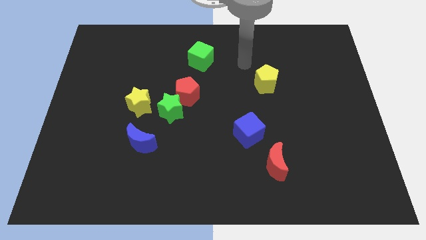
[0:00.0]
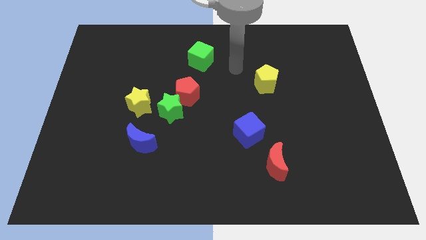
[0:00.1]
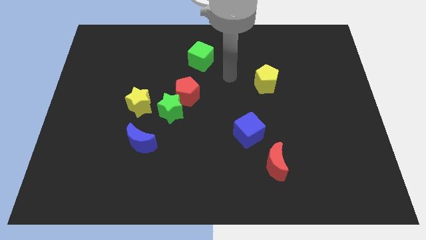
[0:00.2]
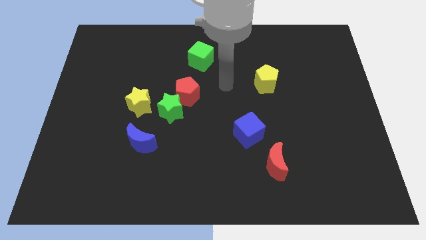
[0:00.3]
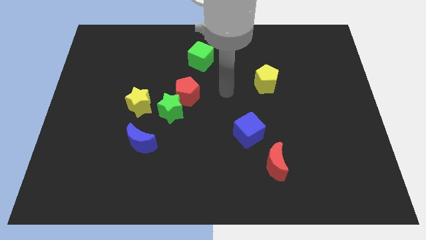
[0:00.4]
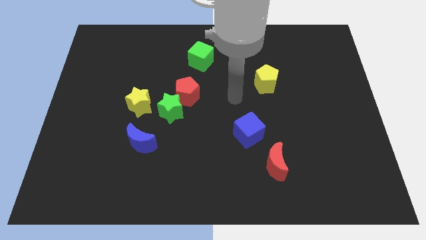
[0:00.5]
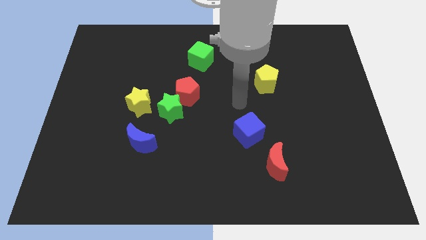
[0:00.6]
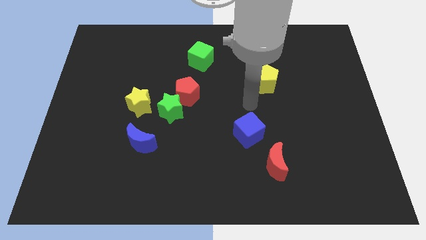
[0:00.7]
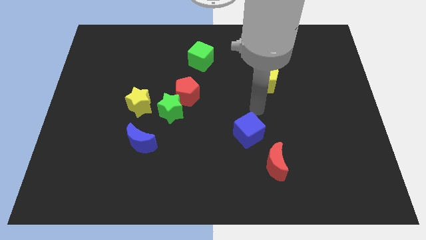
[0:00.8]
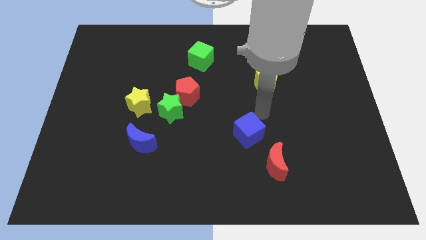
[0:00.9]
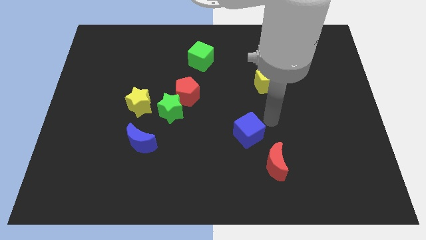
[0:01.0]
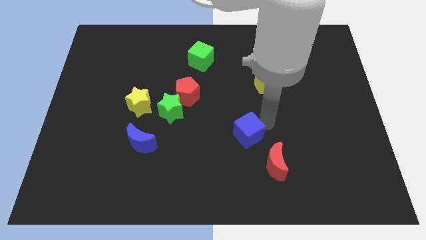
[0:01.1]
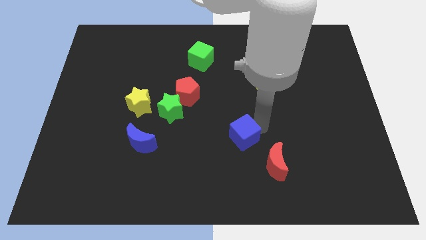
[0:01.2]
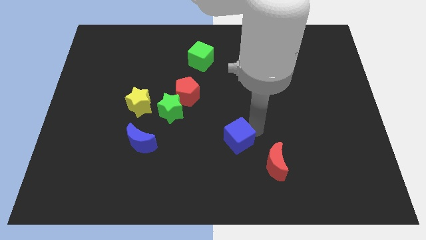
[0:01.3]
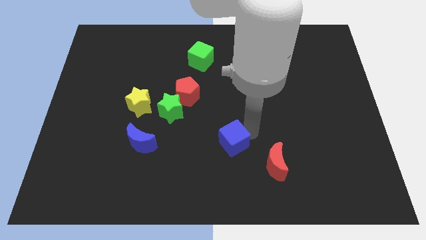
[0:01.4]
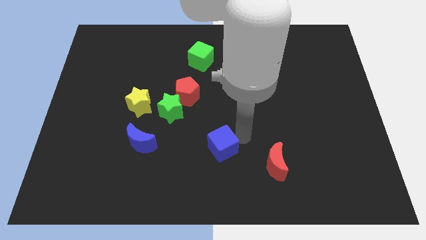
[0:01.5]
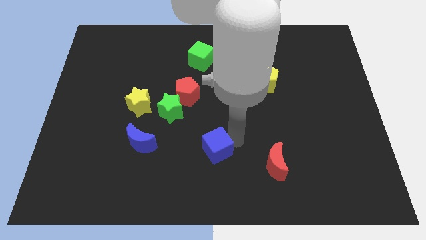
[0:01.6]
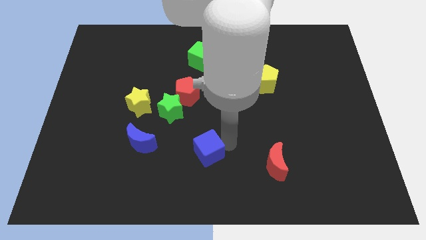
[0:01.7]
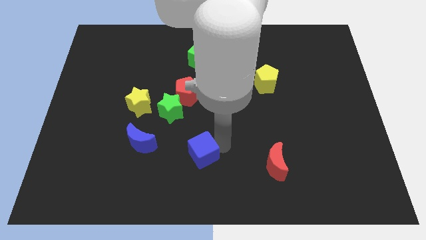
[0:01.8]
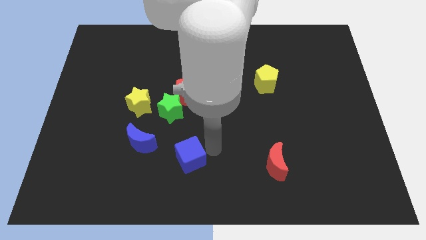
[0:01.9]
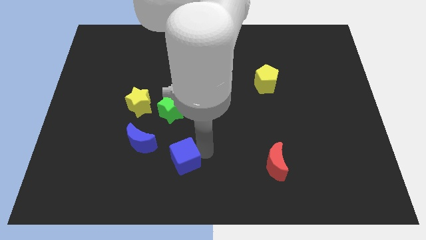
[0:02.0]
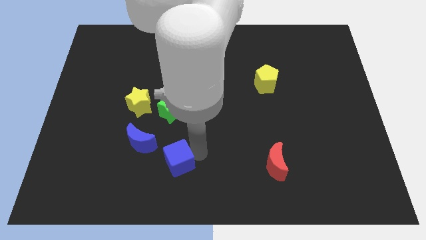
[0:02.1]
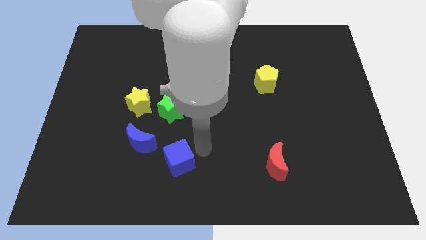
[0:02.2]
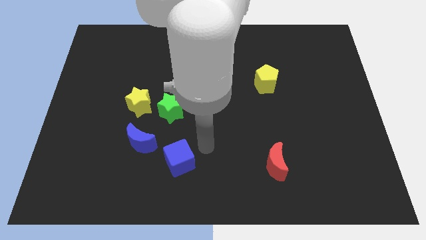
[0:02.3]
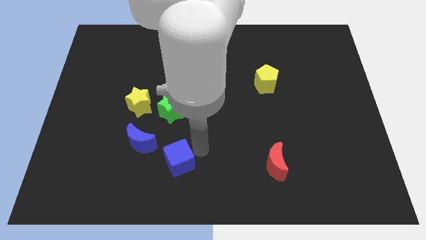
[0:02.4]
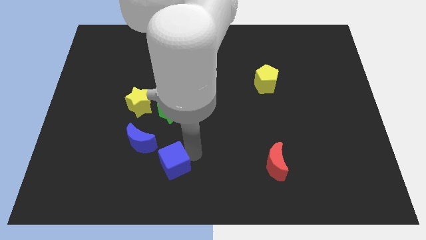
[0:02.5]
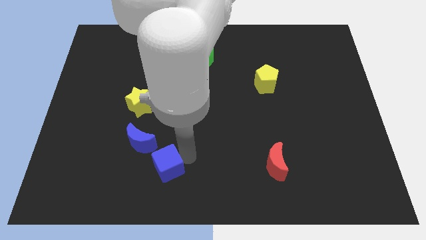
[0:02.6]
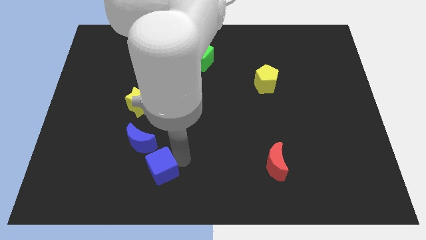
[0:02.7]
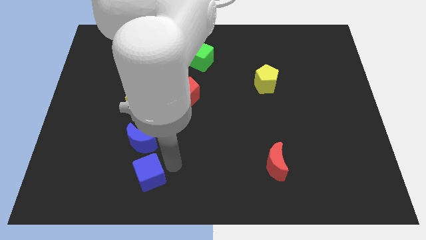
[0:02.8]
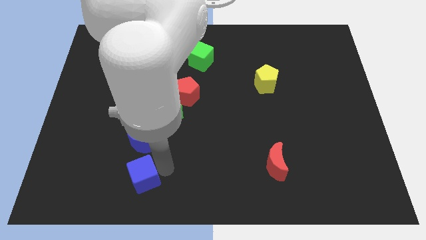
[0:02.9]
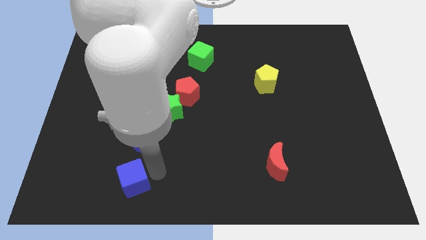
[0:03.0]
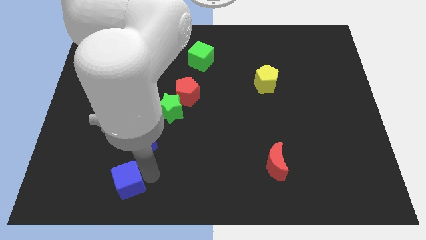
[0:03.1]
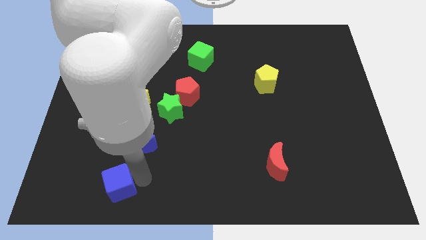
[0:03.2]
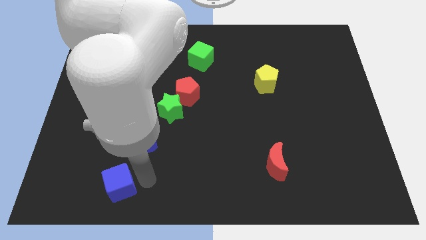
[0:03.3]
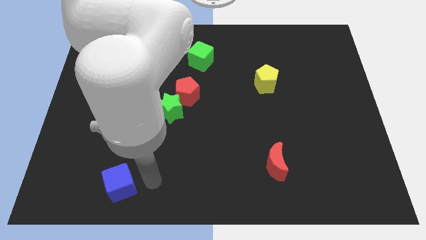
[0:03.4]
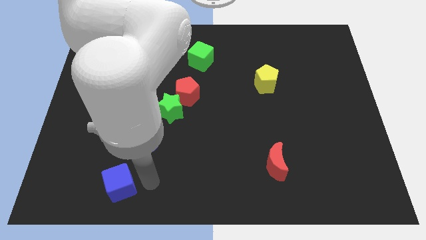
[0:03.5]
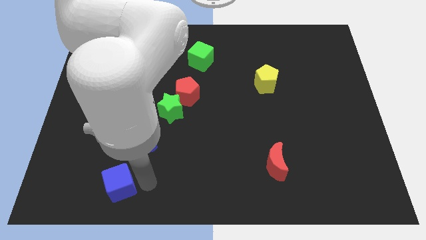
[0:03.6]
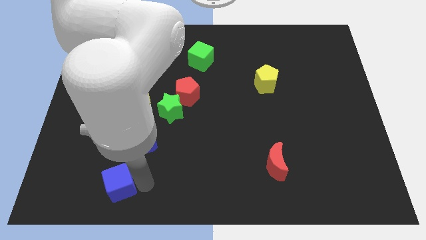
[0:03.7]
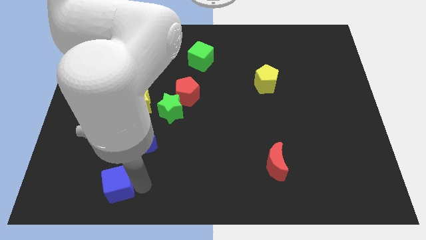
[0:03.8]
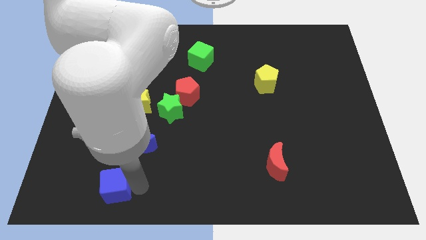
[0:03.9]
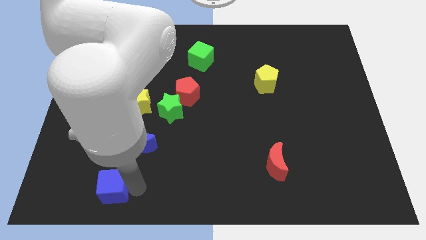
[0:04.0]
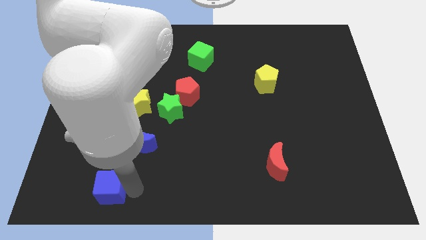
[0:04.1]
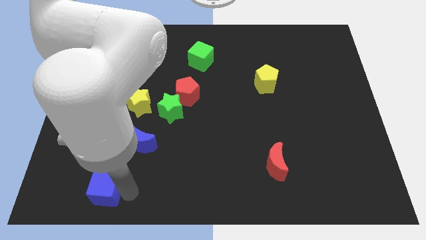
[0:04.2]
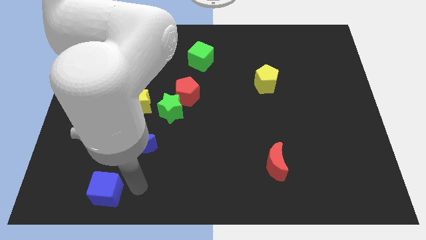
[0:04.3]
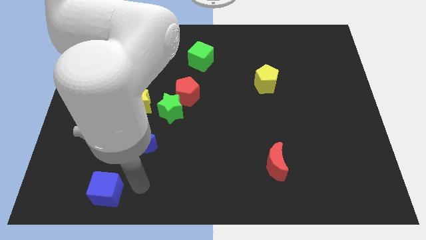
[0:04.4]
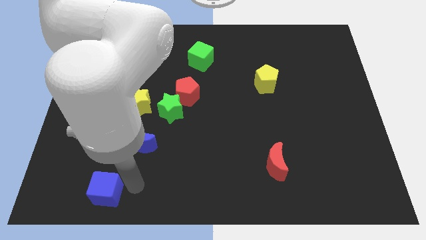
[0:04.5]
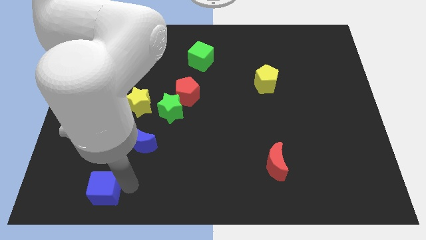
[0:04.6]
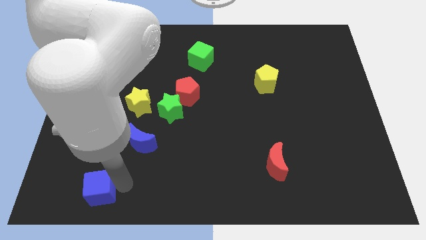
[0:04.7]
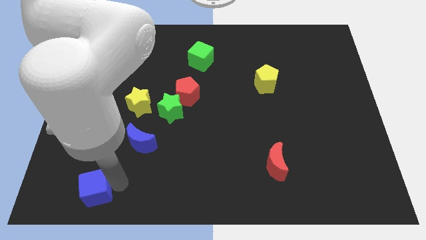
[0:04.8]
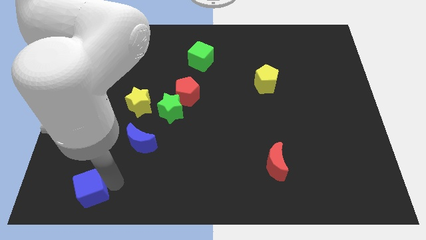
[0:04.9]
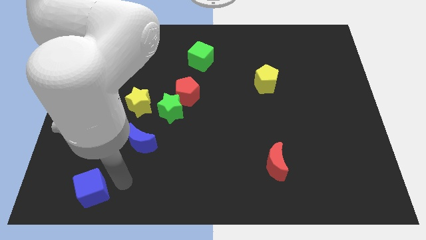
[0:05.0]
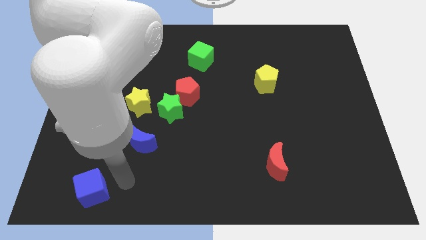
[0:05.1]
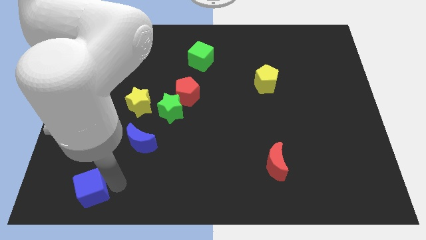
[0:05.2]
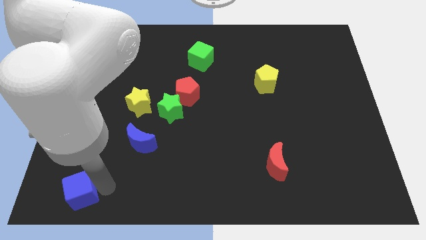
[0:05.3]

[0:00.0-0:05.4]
slide the blue cube to the lower left corner

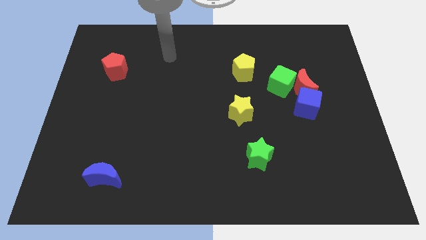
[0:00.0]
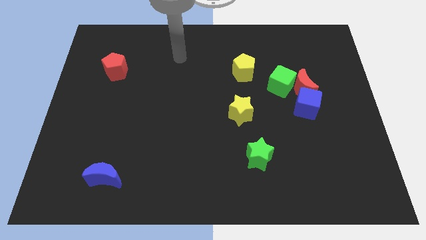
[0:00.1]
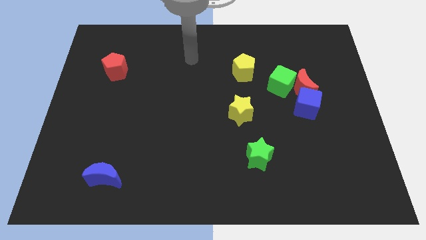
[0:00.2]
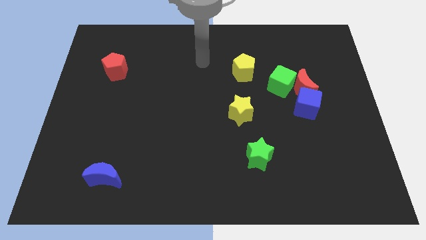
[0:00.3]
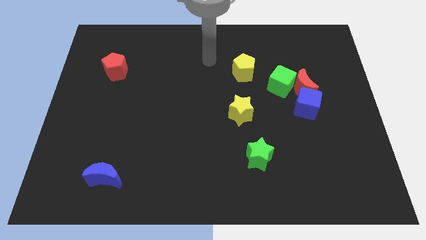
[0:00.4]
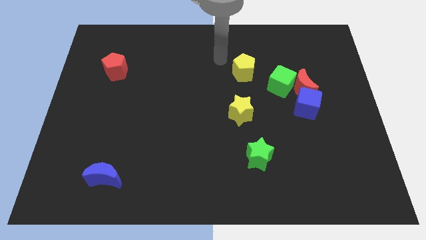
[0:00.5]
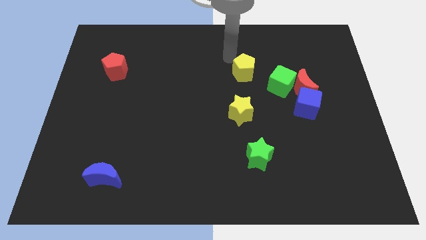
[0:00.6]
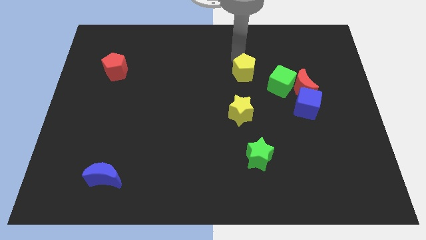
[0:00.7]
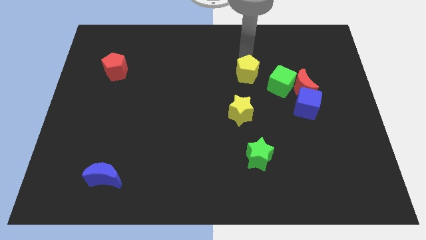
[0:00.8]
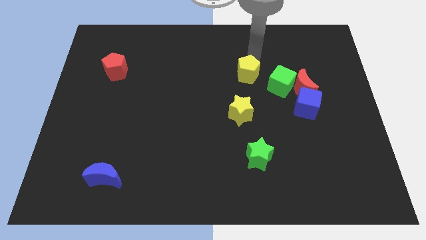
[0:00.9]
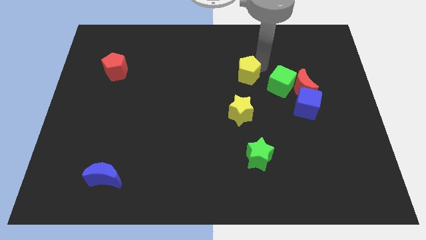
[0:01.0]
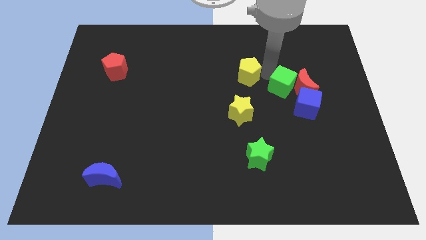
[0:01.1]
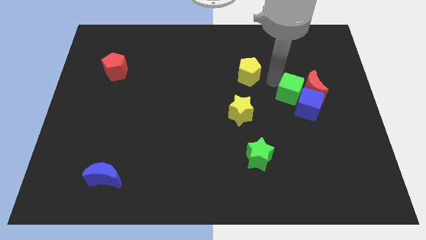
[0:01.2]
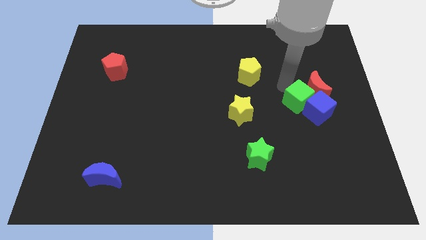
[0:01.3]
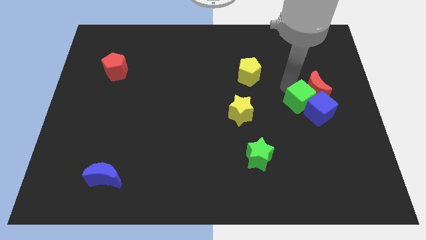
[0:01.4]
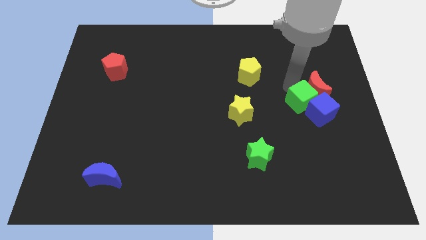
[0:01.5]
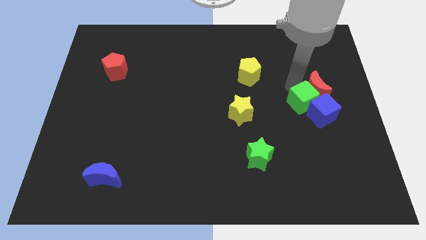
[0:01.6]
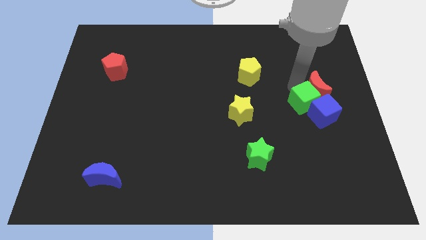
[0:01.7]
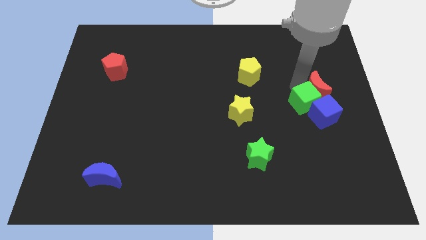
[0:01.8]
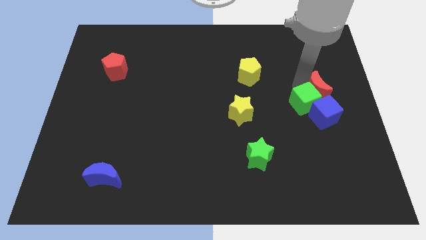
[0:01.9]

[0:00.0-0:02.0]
put the red moon to the right side of the board
